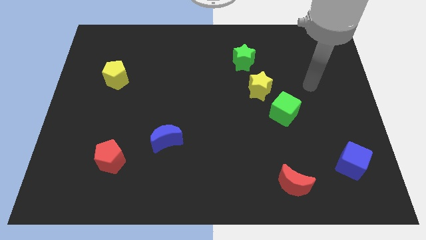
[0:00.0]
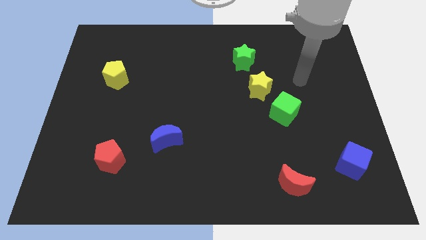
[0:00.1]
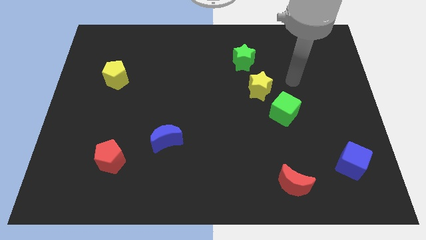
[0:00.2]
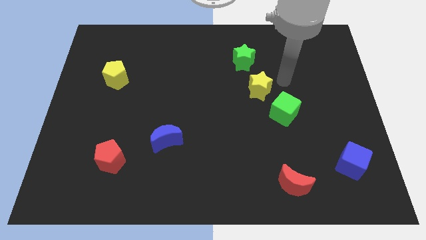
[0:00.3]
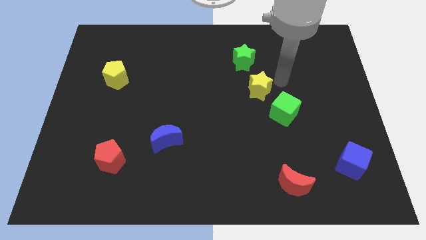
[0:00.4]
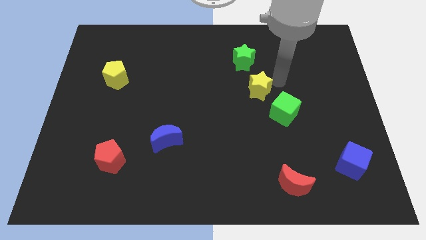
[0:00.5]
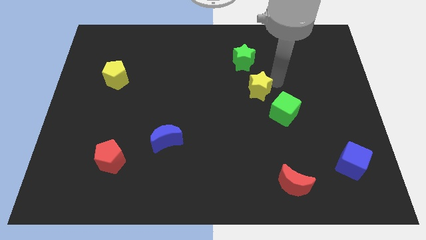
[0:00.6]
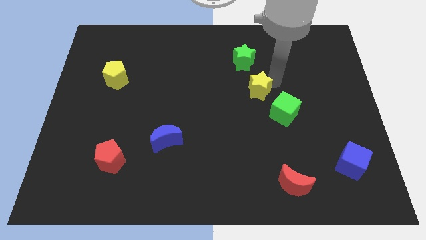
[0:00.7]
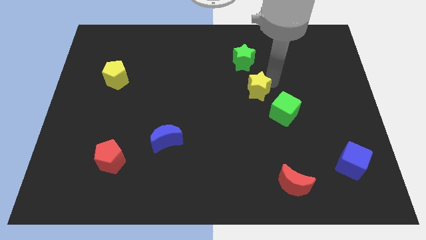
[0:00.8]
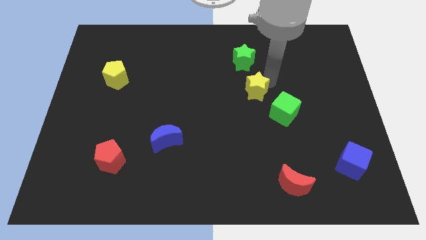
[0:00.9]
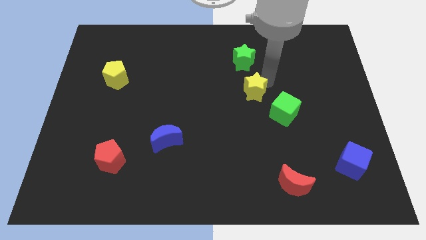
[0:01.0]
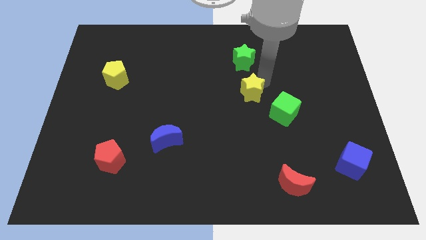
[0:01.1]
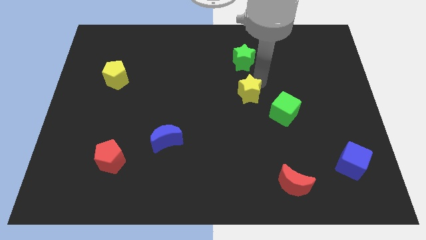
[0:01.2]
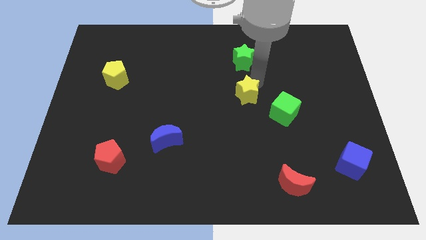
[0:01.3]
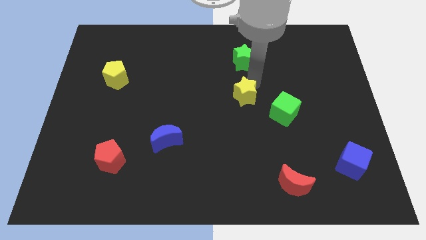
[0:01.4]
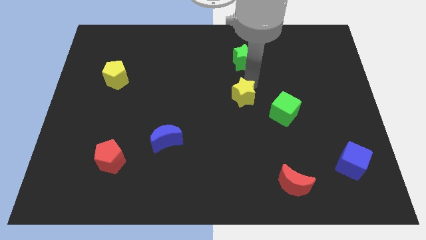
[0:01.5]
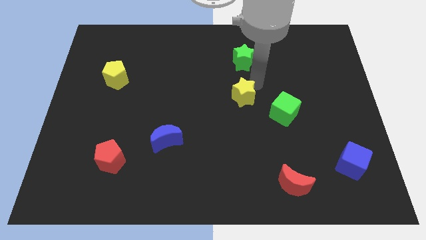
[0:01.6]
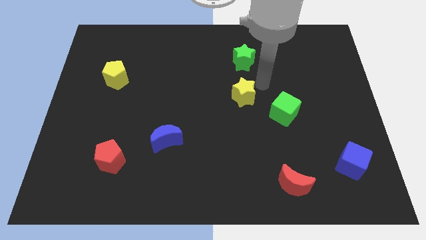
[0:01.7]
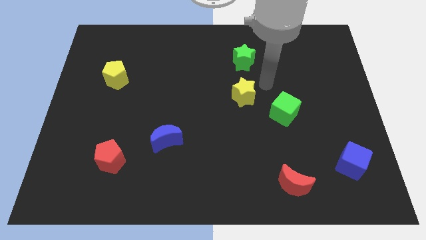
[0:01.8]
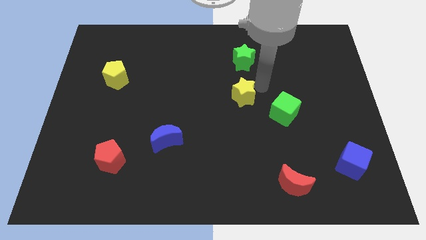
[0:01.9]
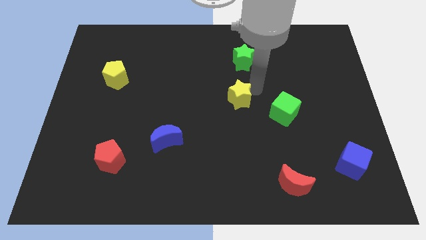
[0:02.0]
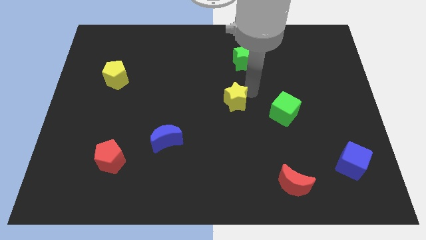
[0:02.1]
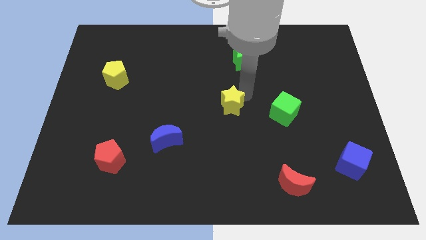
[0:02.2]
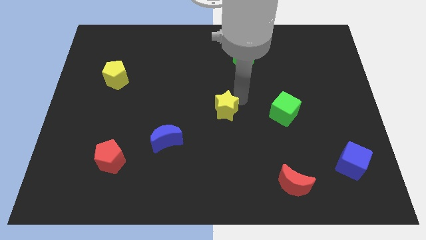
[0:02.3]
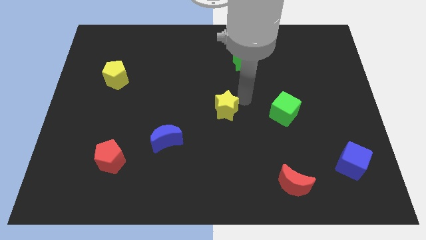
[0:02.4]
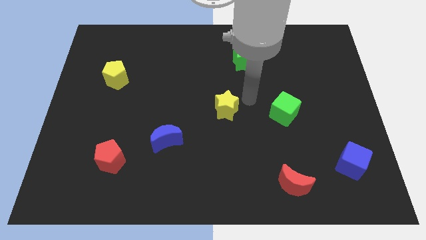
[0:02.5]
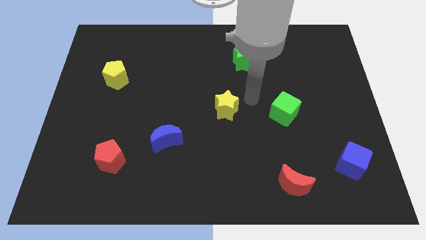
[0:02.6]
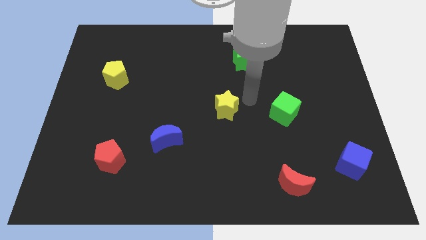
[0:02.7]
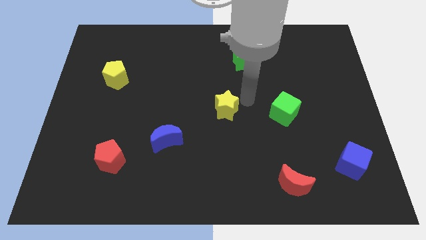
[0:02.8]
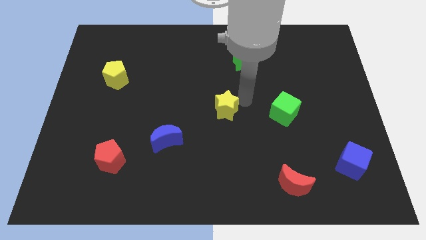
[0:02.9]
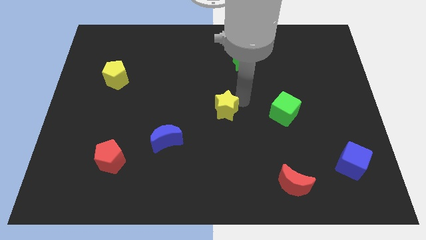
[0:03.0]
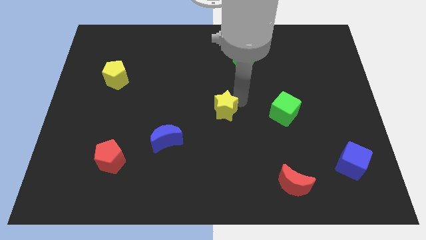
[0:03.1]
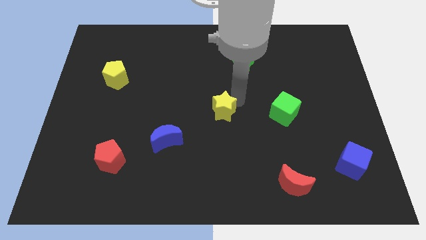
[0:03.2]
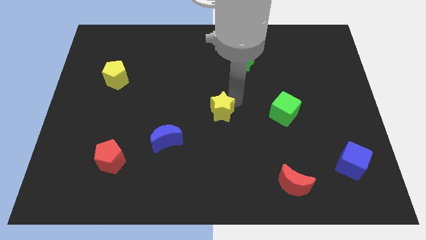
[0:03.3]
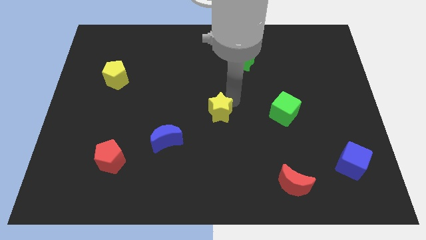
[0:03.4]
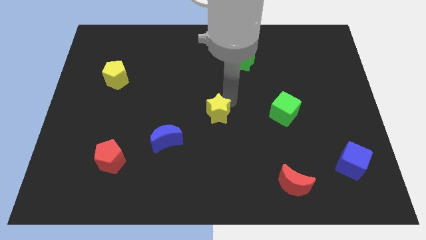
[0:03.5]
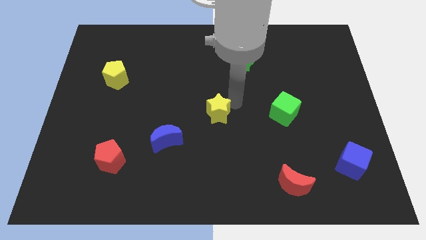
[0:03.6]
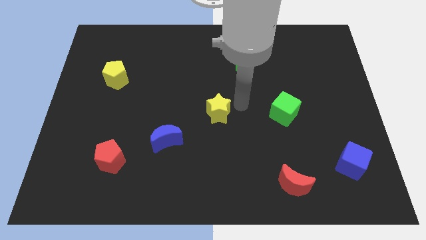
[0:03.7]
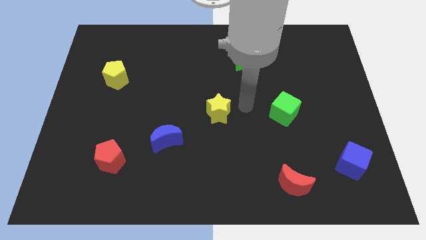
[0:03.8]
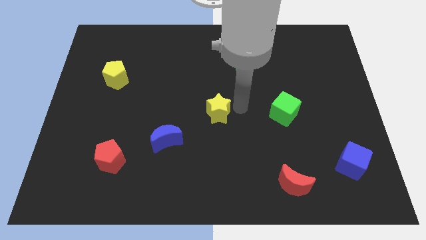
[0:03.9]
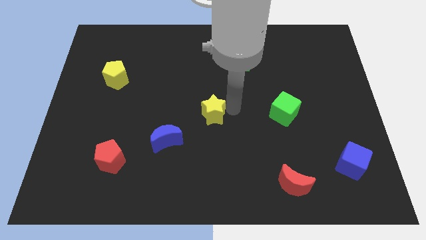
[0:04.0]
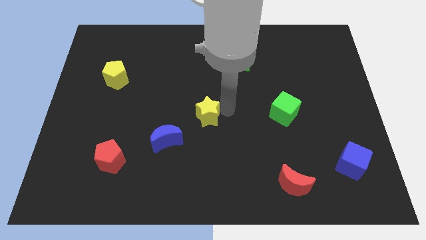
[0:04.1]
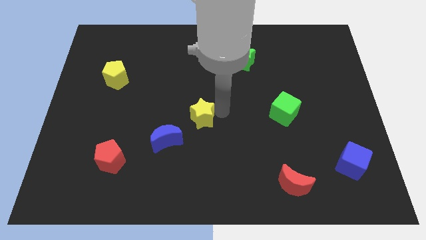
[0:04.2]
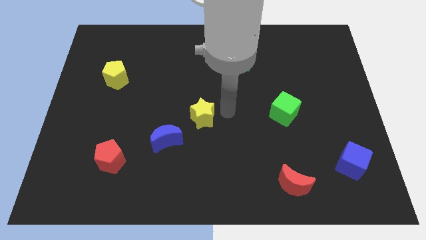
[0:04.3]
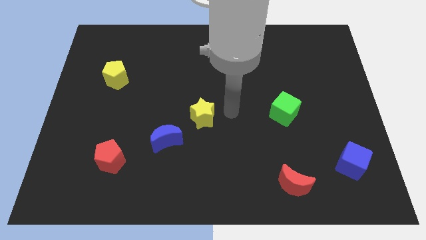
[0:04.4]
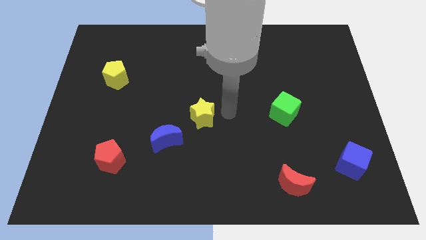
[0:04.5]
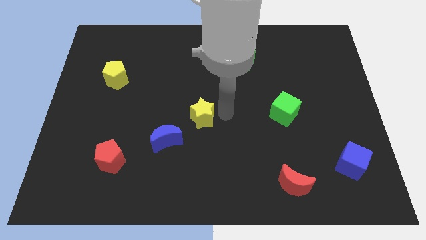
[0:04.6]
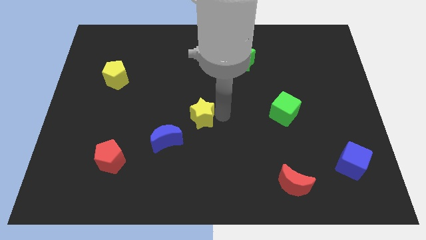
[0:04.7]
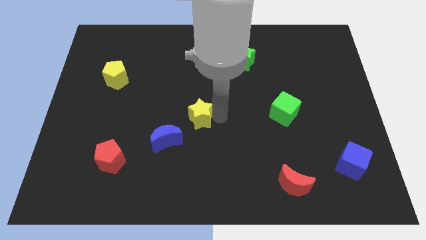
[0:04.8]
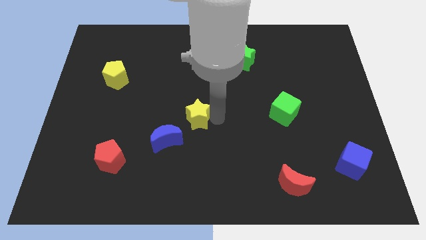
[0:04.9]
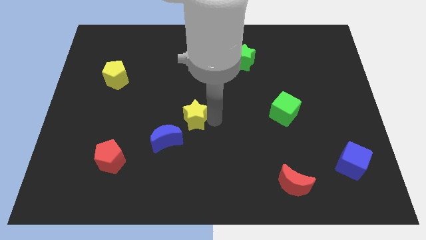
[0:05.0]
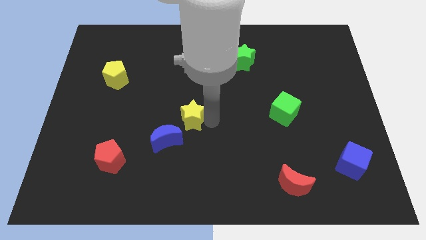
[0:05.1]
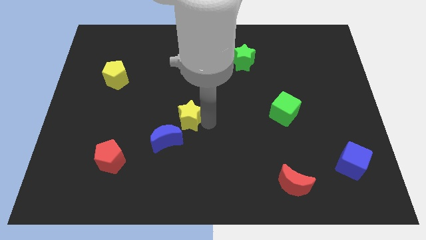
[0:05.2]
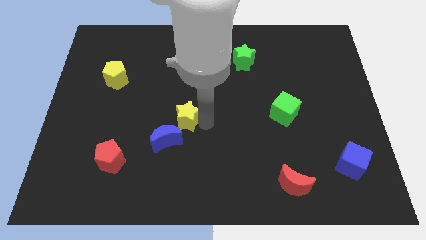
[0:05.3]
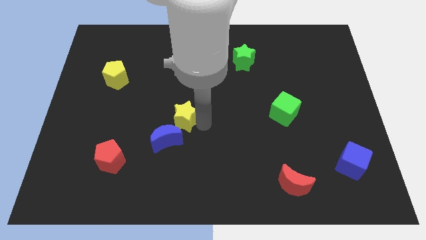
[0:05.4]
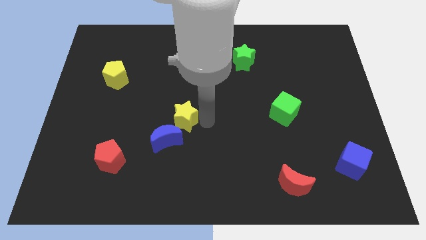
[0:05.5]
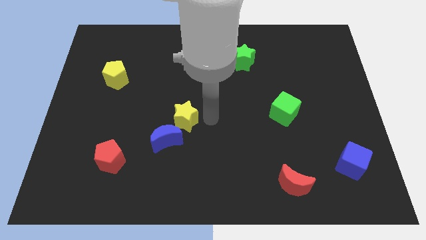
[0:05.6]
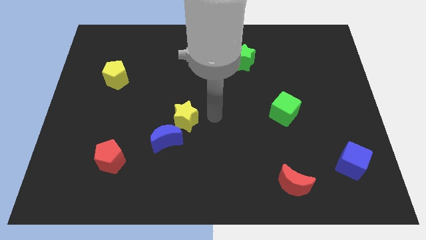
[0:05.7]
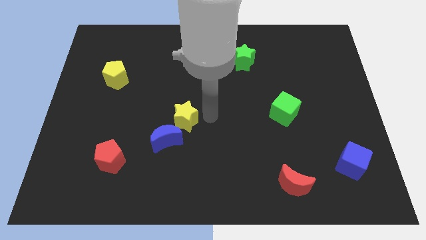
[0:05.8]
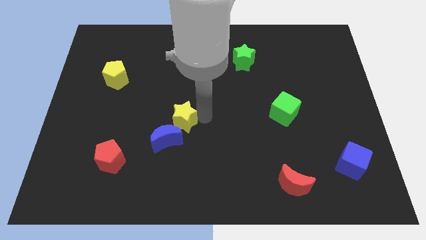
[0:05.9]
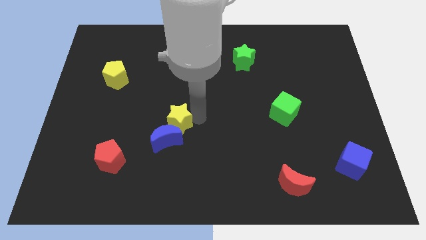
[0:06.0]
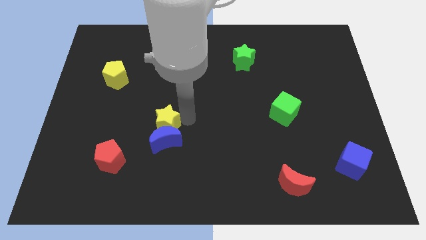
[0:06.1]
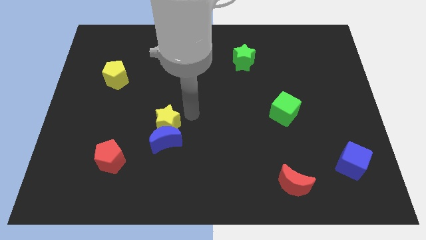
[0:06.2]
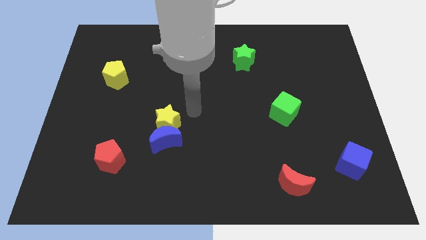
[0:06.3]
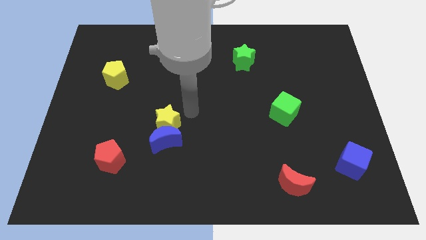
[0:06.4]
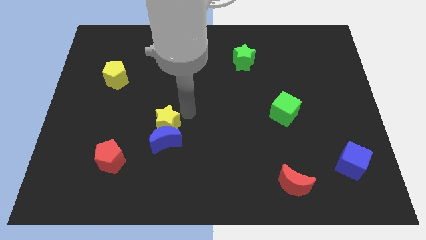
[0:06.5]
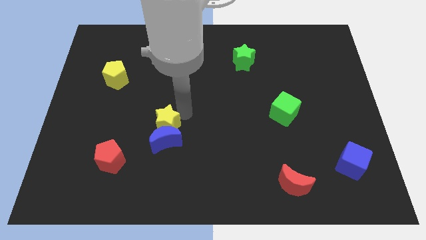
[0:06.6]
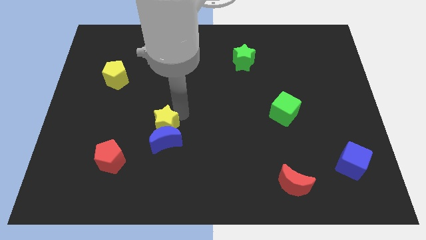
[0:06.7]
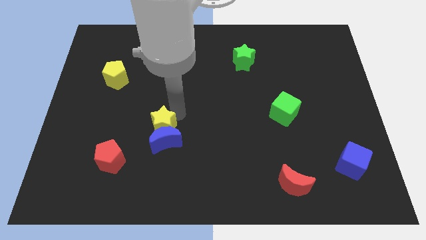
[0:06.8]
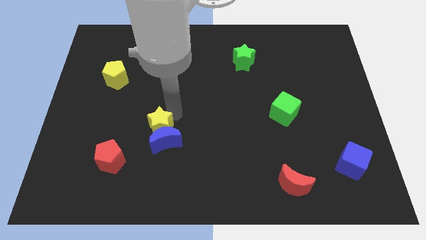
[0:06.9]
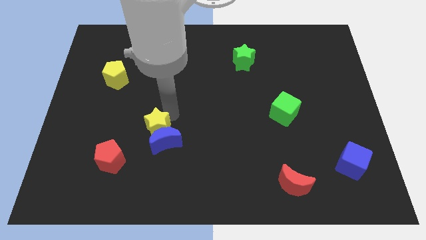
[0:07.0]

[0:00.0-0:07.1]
slide the yellow star to the top right of the red pentagon

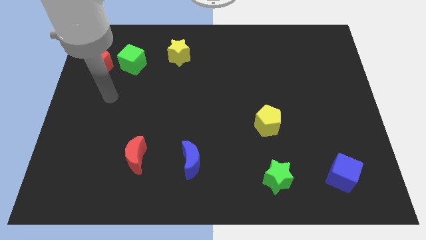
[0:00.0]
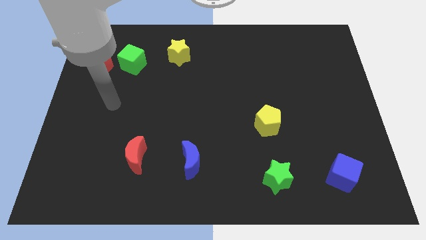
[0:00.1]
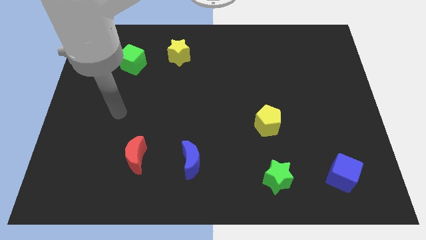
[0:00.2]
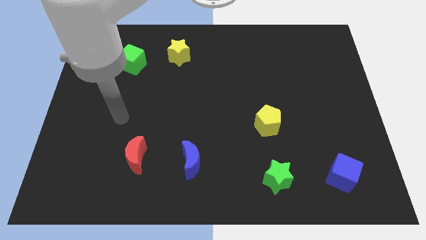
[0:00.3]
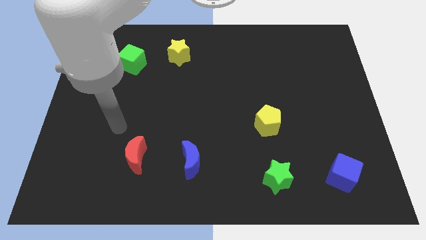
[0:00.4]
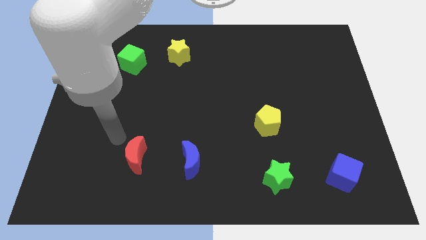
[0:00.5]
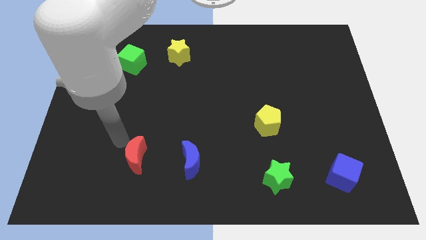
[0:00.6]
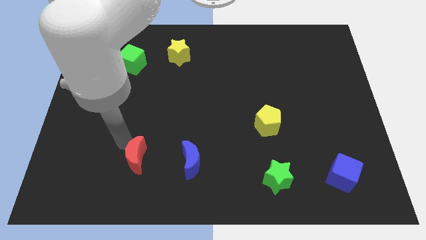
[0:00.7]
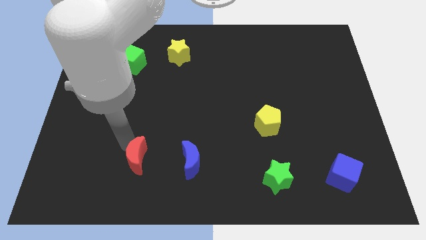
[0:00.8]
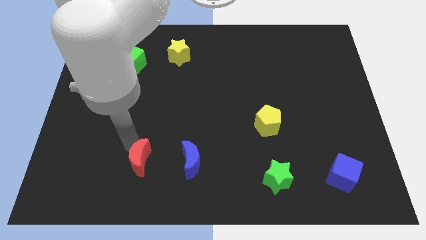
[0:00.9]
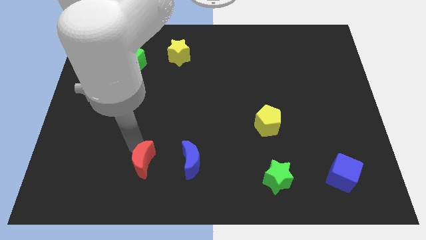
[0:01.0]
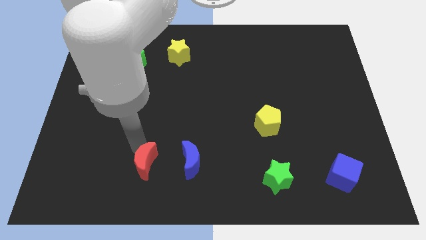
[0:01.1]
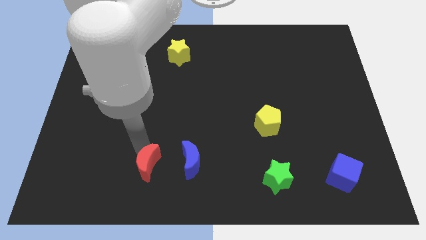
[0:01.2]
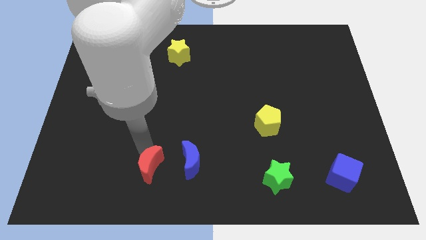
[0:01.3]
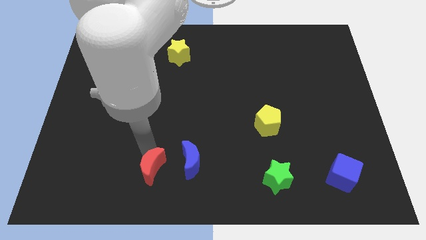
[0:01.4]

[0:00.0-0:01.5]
move the red moon to the bottom left side of the blue moon
